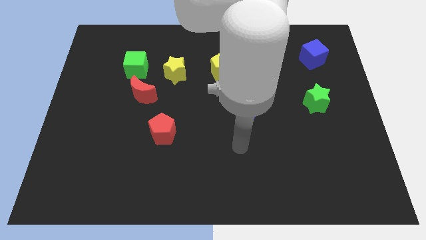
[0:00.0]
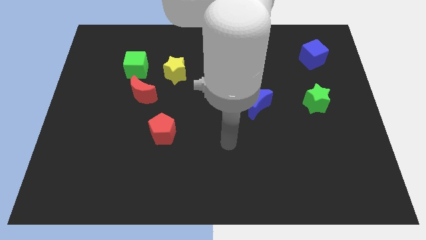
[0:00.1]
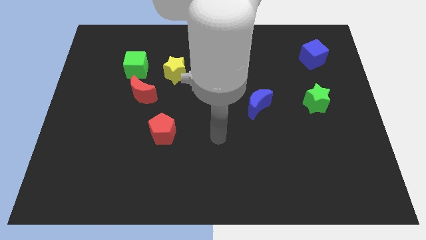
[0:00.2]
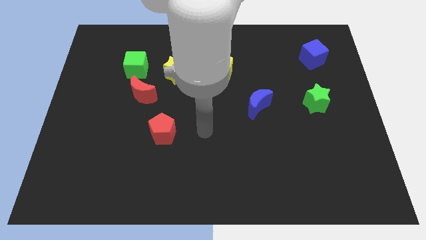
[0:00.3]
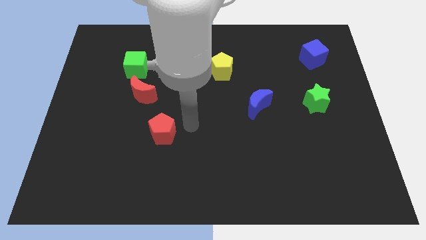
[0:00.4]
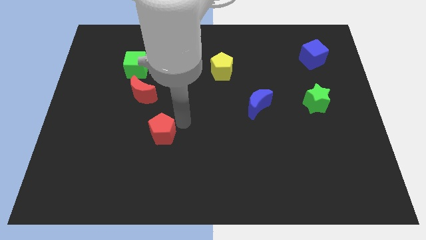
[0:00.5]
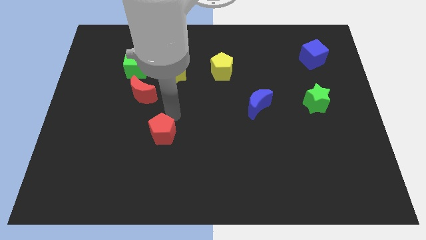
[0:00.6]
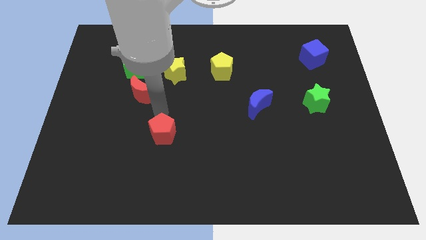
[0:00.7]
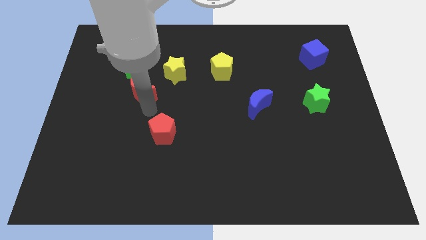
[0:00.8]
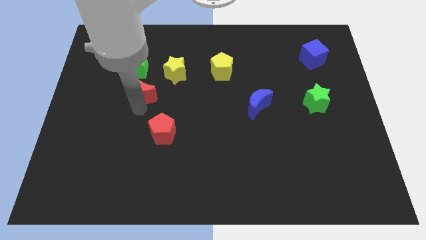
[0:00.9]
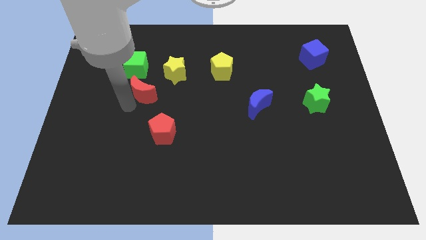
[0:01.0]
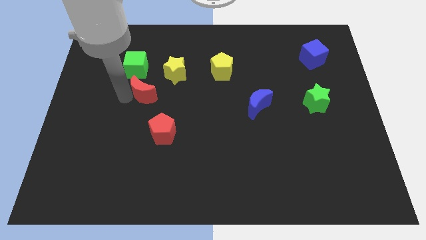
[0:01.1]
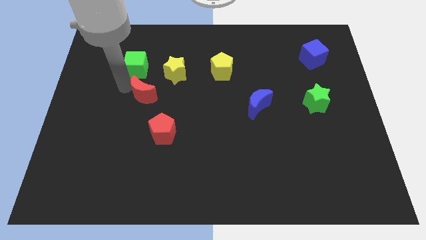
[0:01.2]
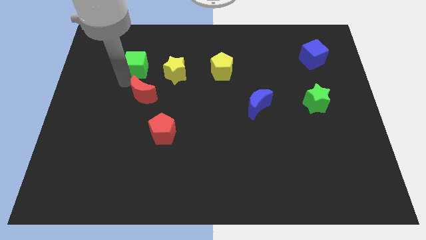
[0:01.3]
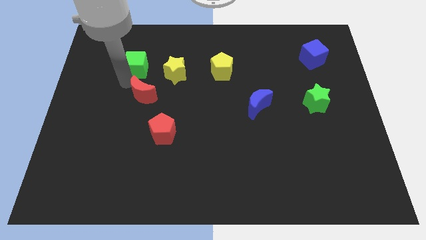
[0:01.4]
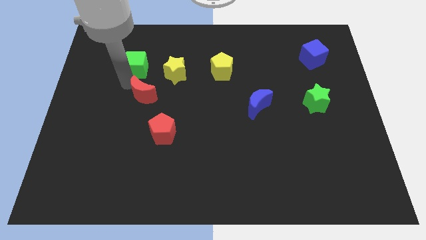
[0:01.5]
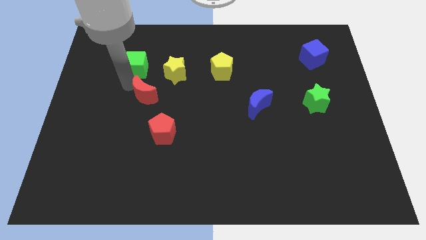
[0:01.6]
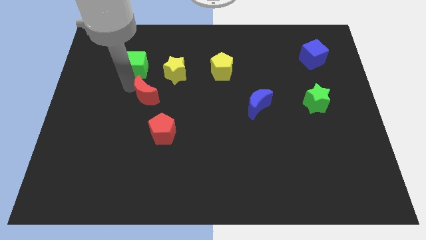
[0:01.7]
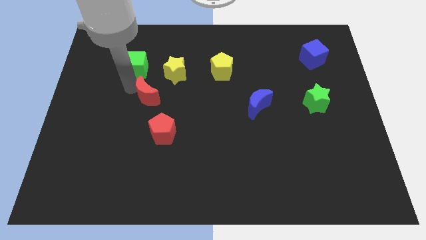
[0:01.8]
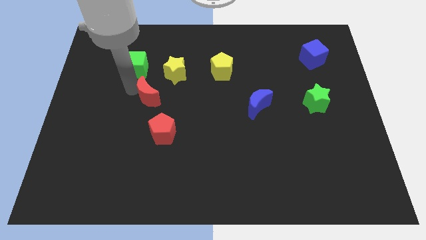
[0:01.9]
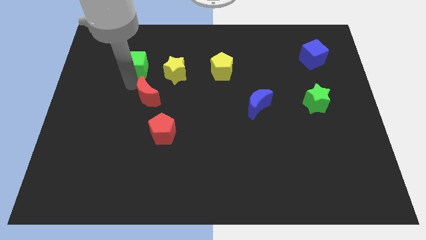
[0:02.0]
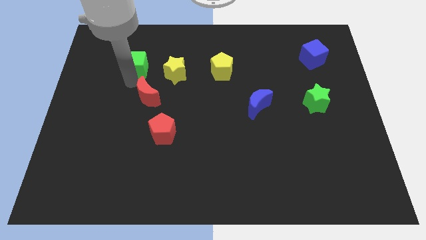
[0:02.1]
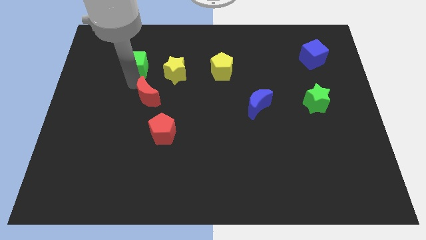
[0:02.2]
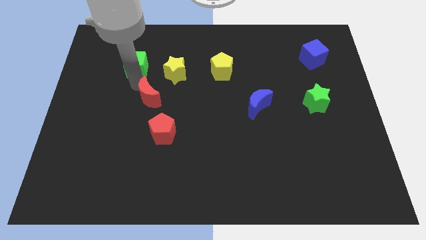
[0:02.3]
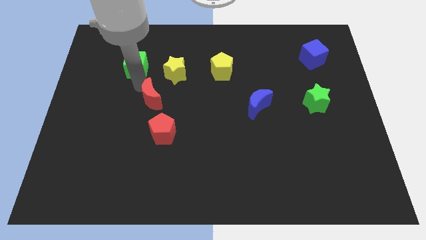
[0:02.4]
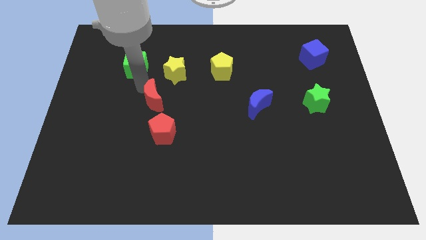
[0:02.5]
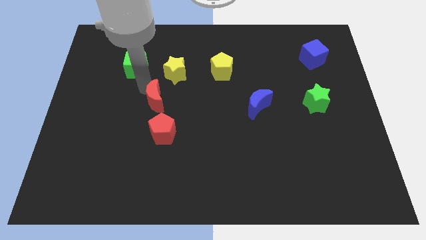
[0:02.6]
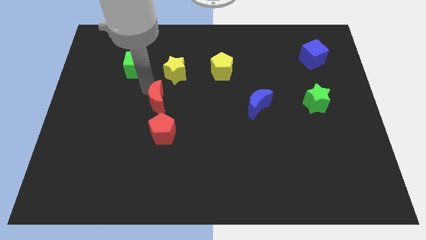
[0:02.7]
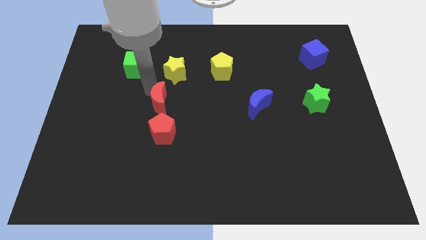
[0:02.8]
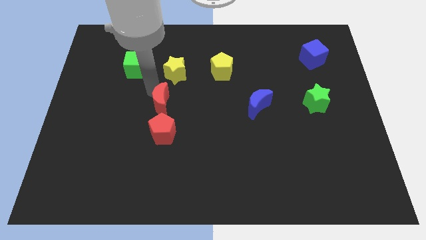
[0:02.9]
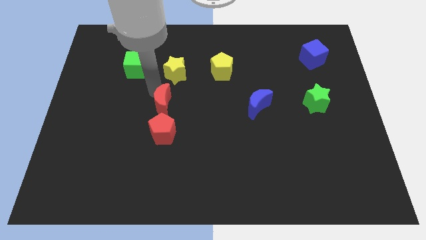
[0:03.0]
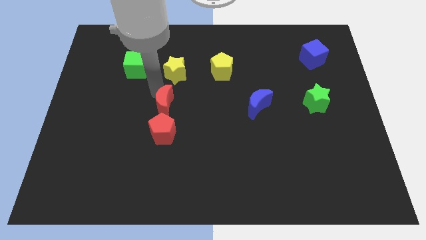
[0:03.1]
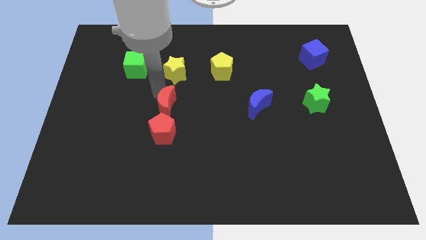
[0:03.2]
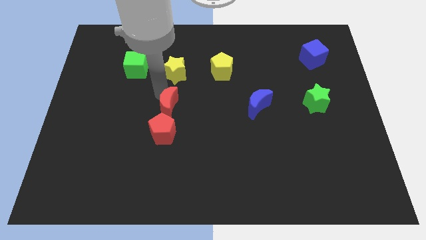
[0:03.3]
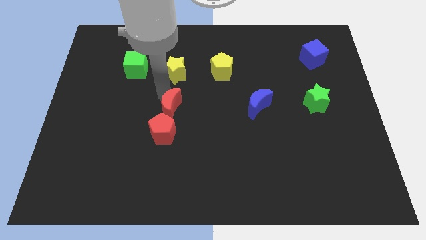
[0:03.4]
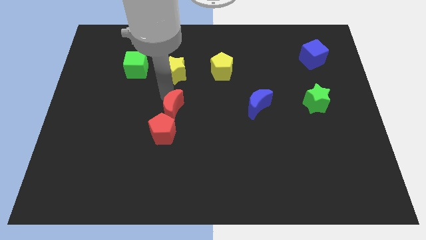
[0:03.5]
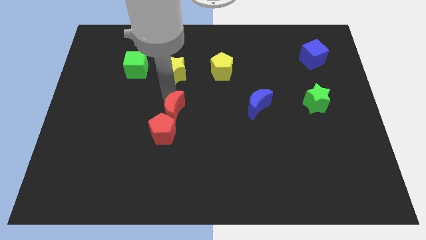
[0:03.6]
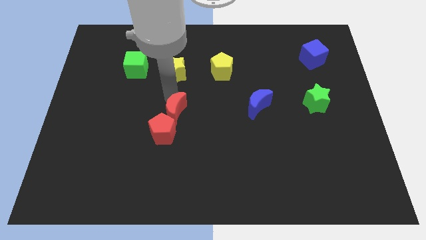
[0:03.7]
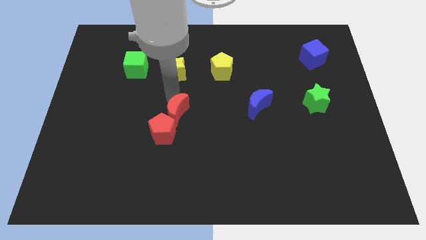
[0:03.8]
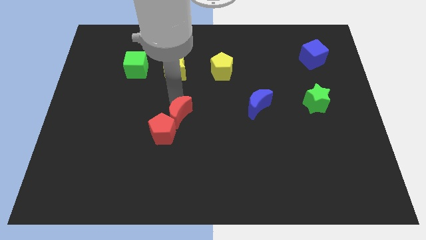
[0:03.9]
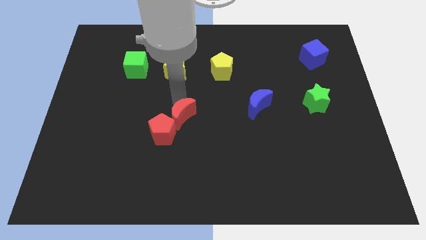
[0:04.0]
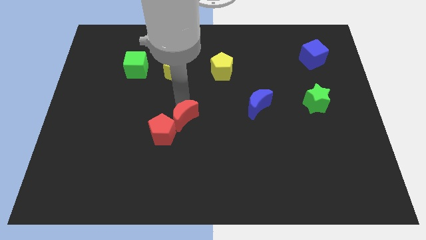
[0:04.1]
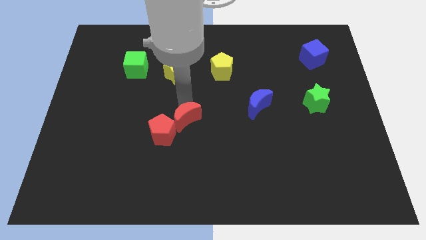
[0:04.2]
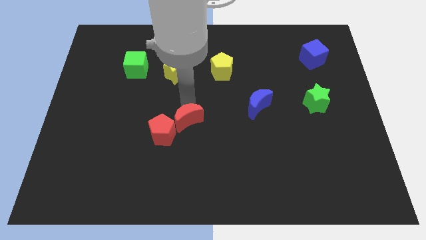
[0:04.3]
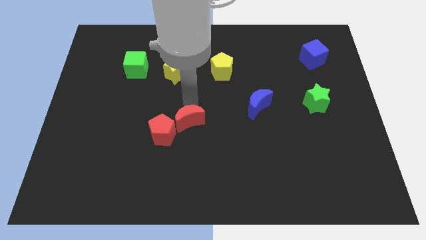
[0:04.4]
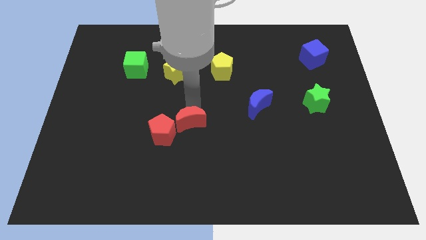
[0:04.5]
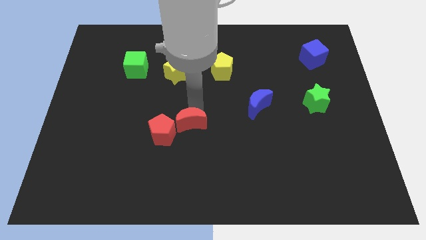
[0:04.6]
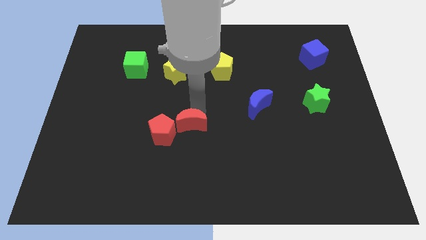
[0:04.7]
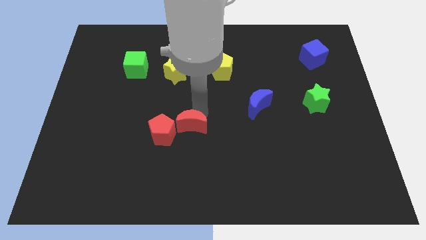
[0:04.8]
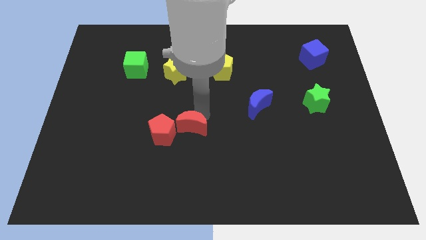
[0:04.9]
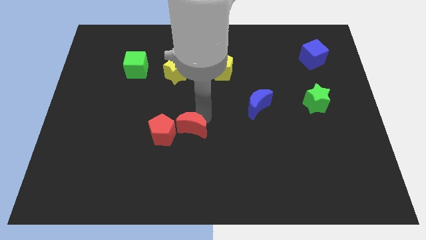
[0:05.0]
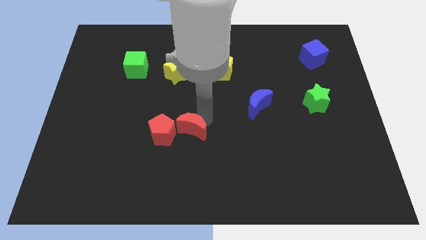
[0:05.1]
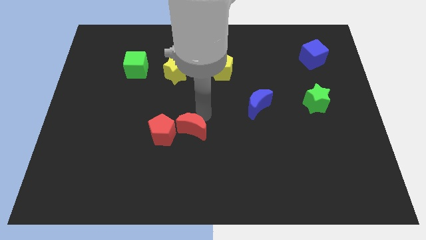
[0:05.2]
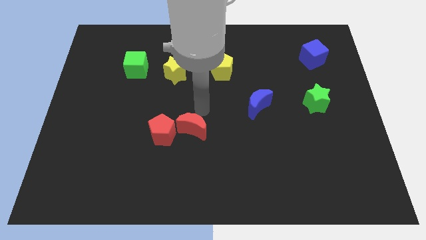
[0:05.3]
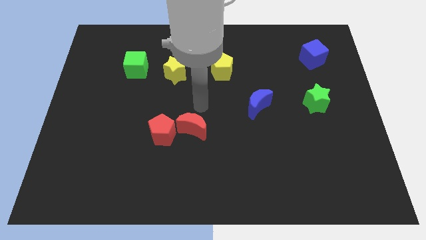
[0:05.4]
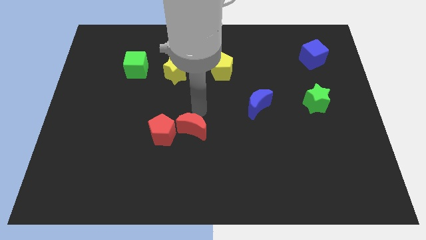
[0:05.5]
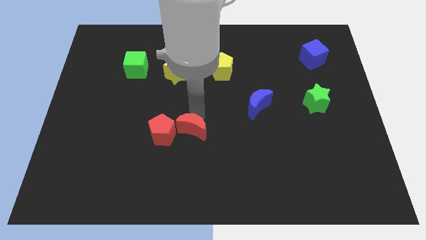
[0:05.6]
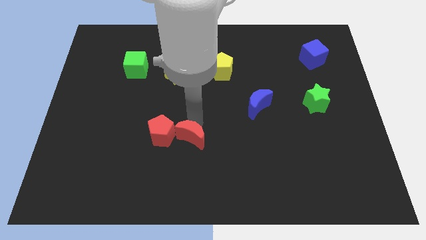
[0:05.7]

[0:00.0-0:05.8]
slide the red moon to the bottom right side of the red pentagon

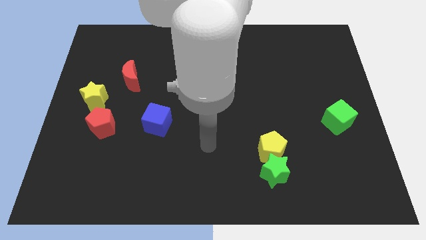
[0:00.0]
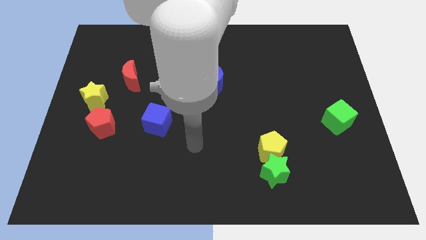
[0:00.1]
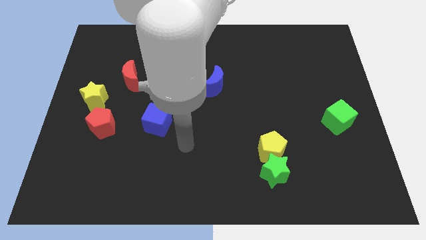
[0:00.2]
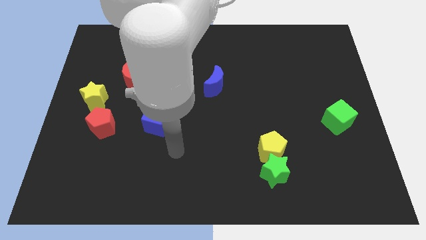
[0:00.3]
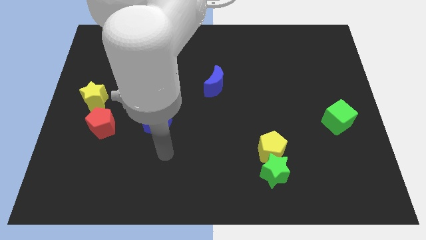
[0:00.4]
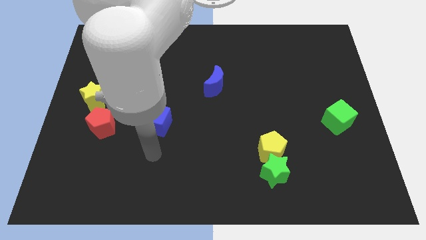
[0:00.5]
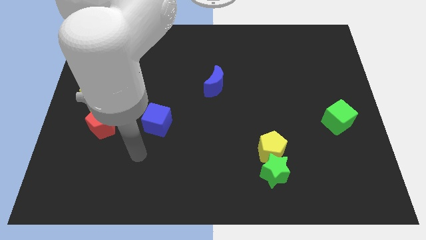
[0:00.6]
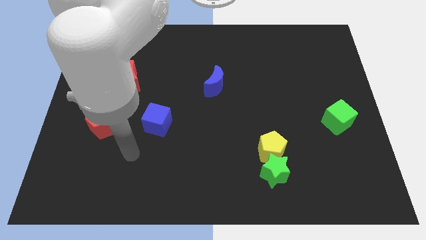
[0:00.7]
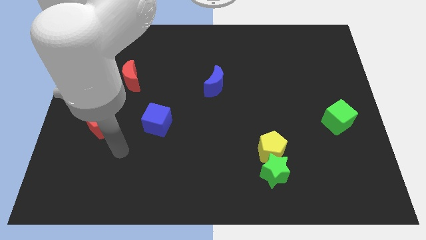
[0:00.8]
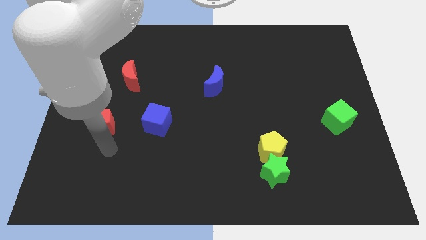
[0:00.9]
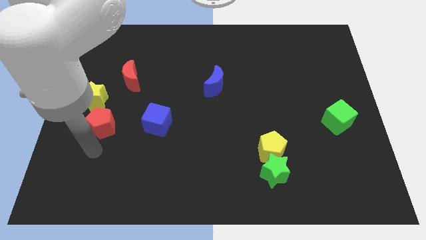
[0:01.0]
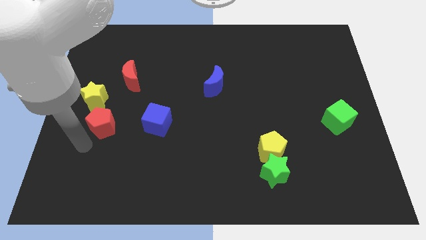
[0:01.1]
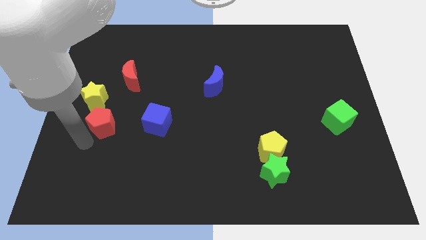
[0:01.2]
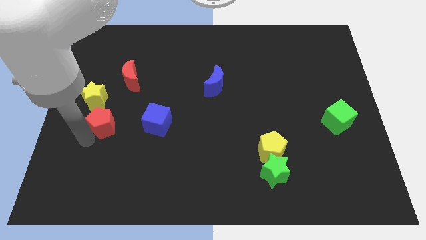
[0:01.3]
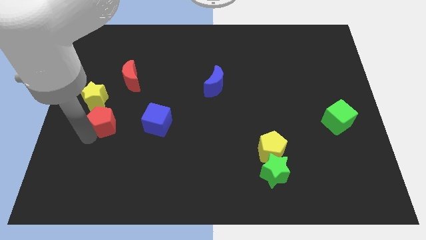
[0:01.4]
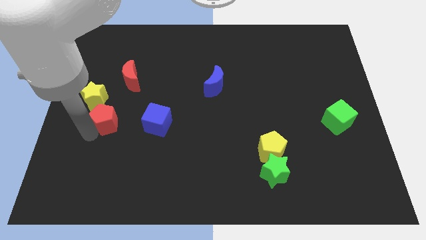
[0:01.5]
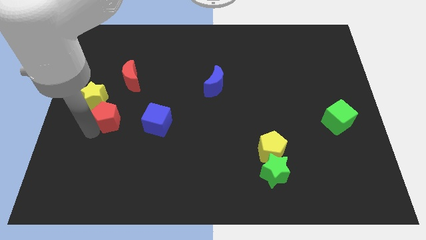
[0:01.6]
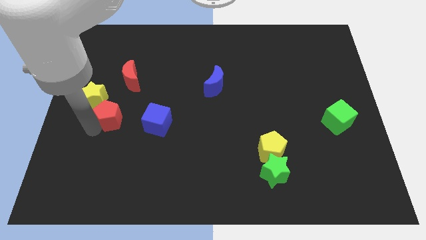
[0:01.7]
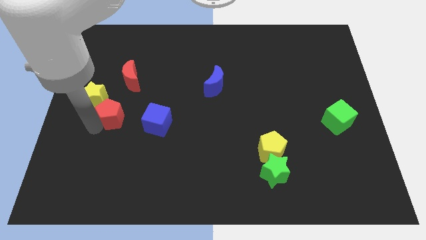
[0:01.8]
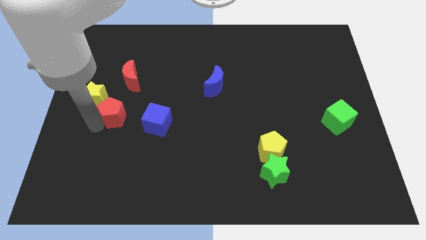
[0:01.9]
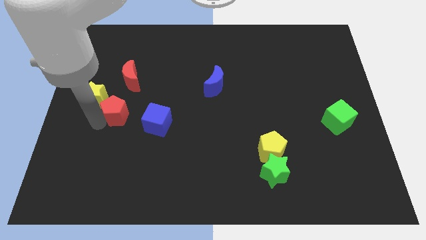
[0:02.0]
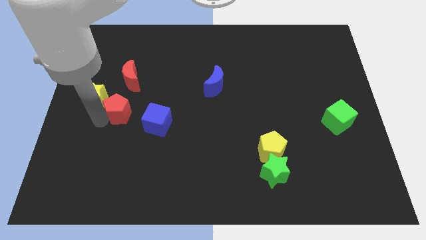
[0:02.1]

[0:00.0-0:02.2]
put the red pentagon to the top left side of the blue cube
